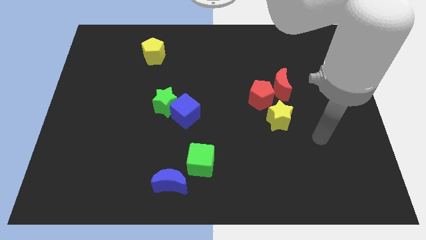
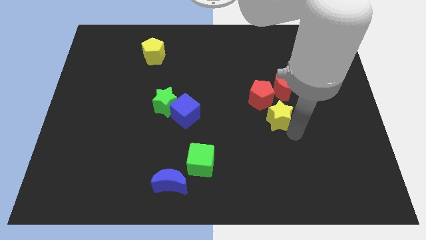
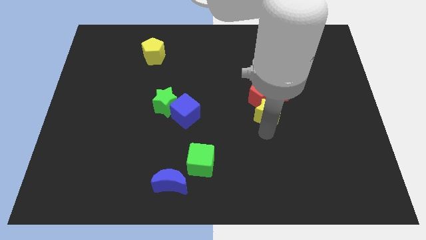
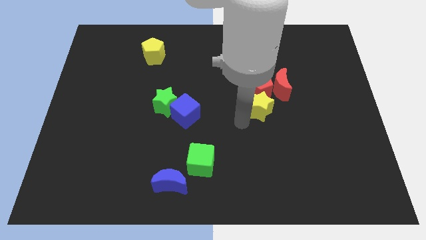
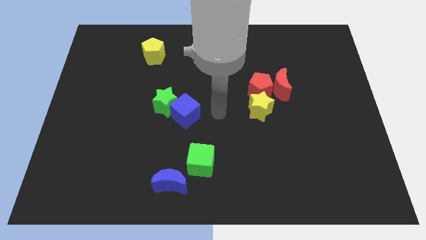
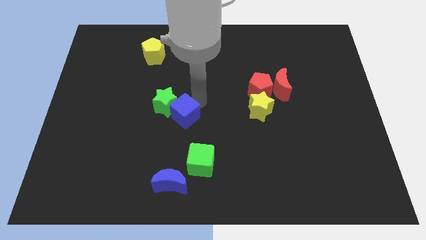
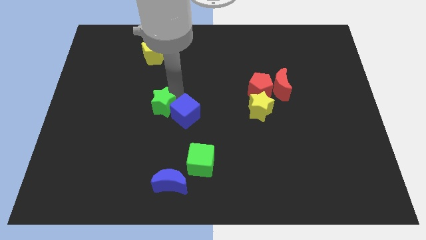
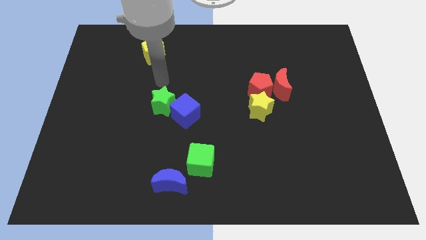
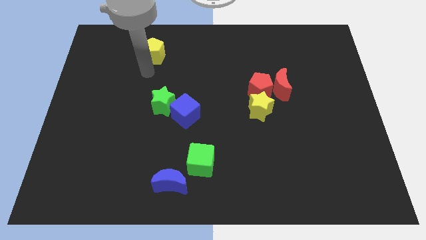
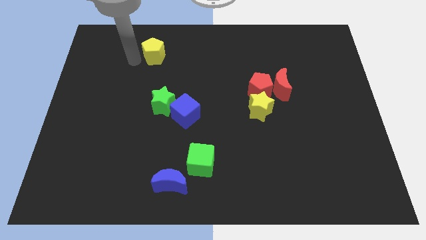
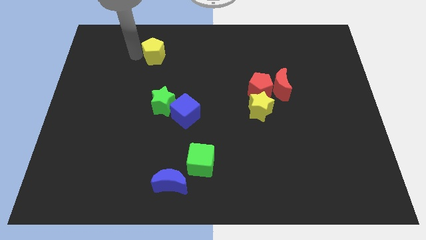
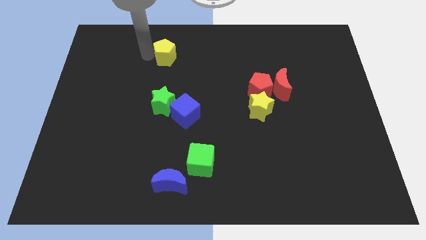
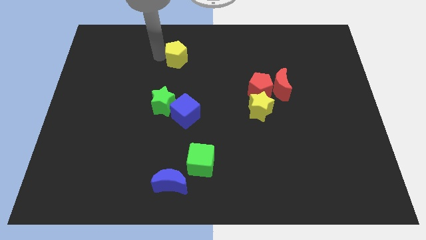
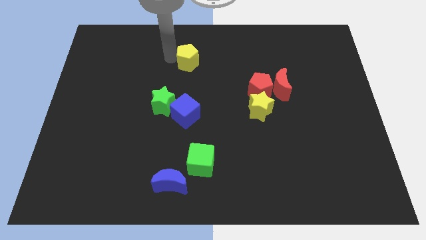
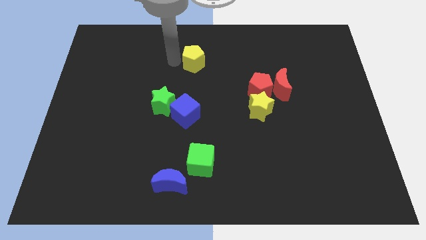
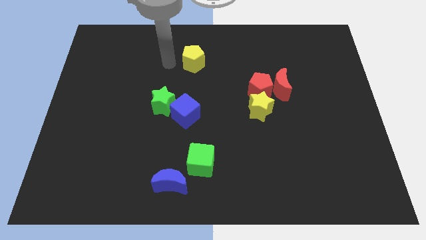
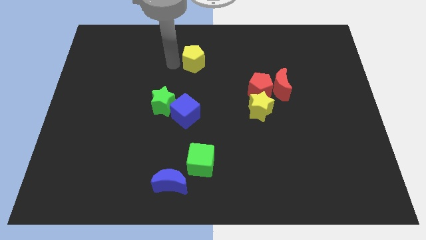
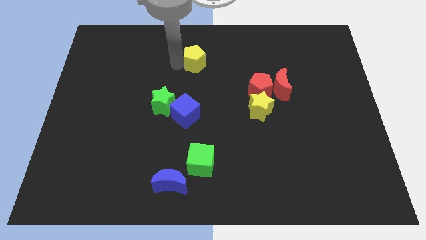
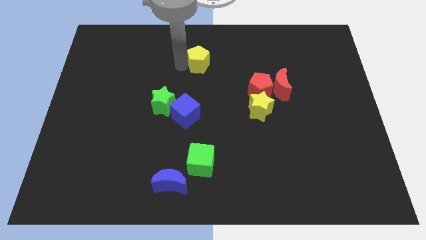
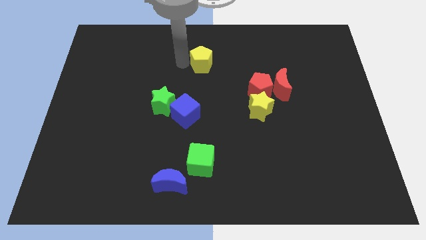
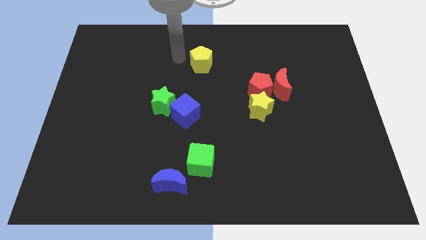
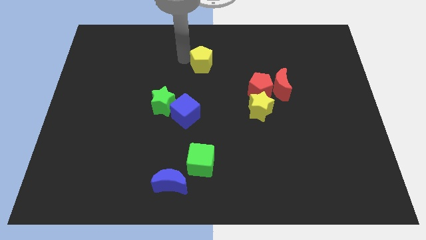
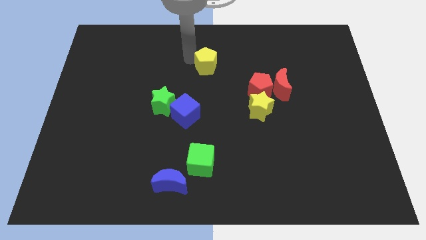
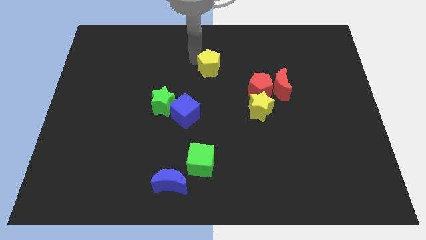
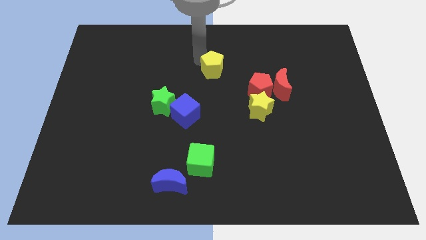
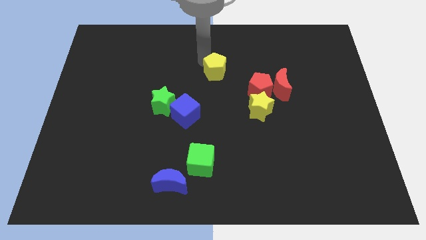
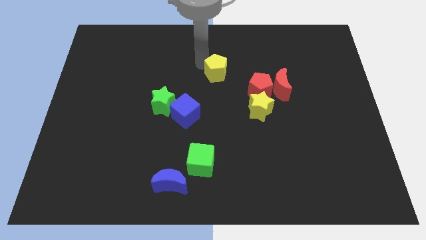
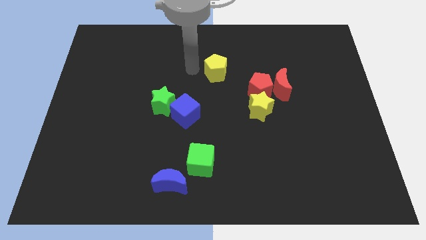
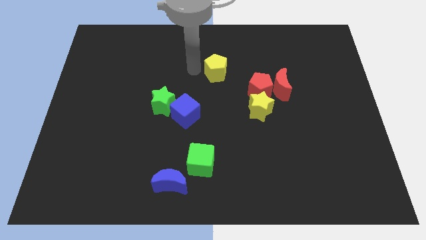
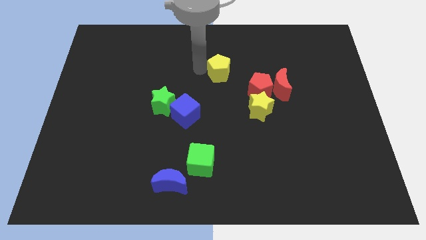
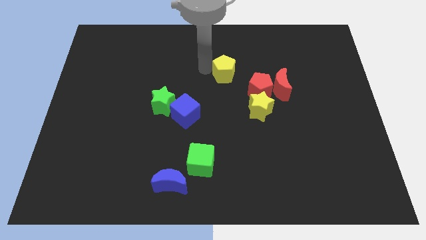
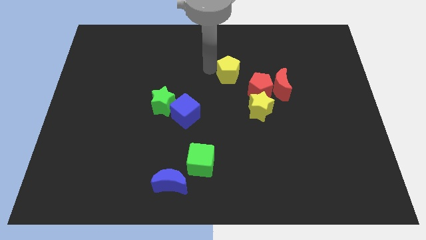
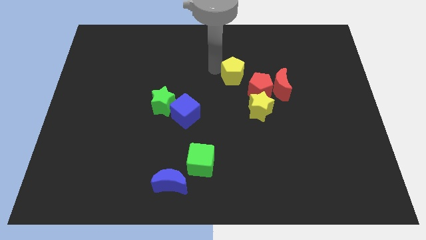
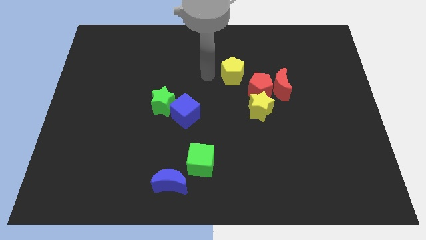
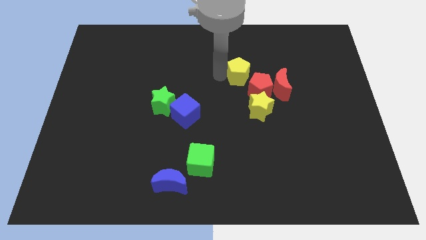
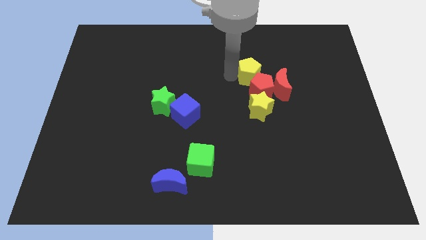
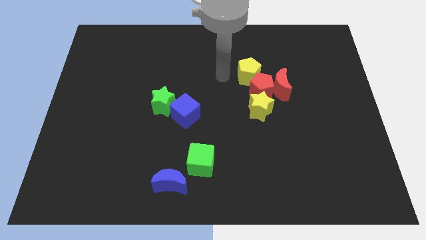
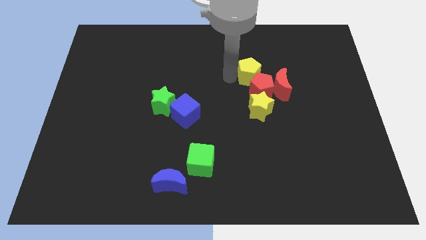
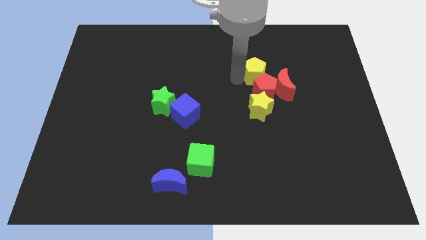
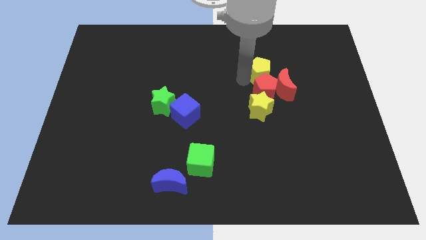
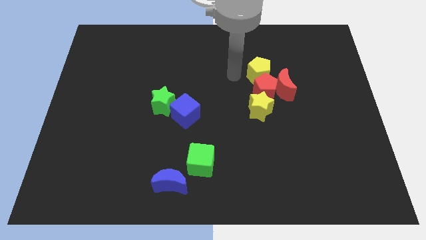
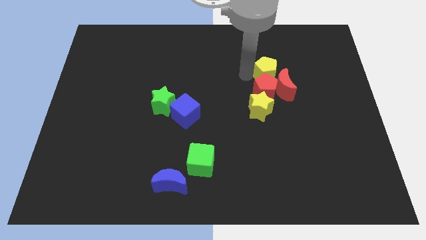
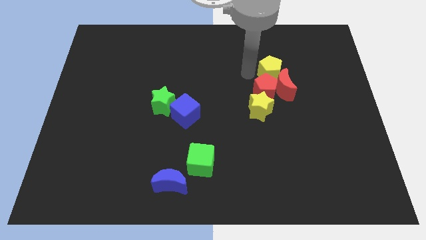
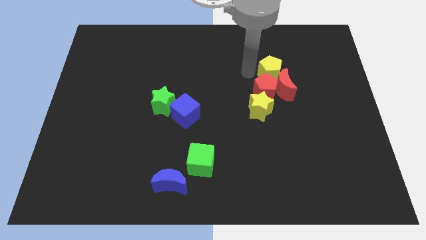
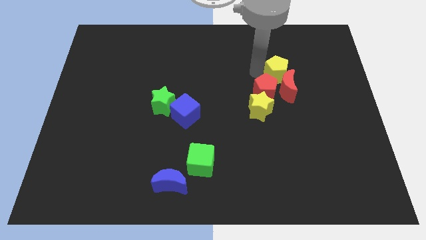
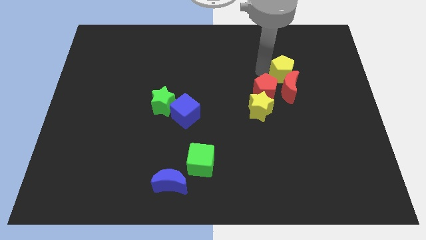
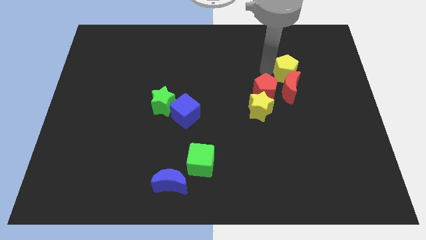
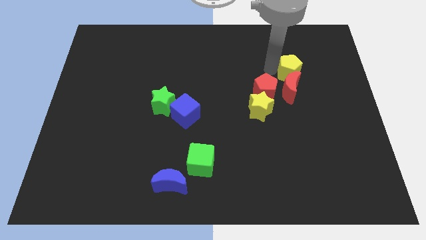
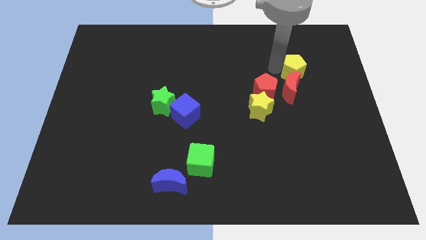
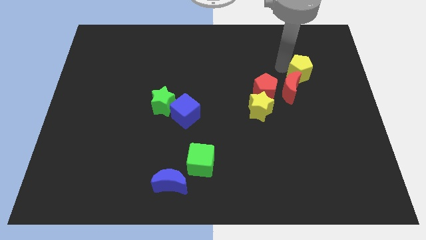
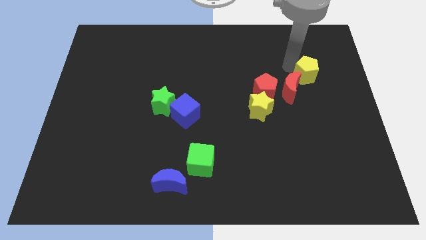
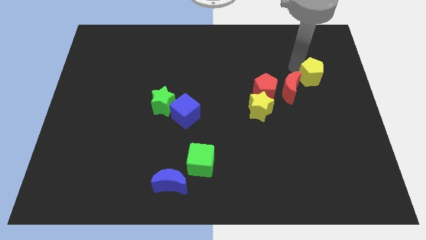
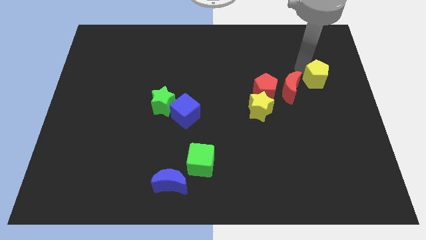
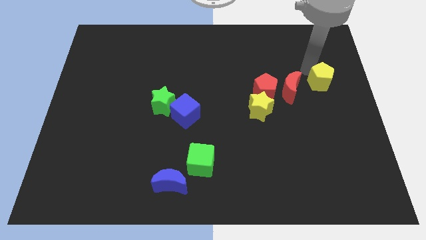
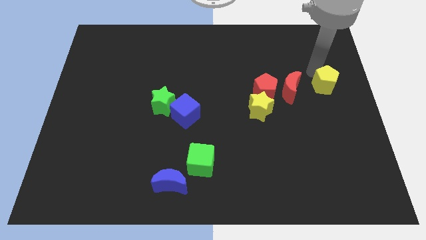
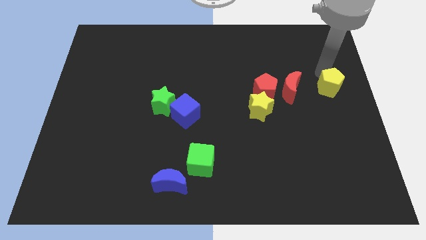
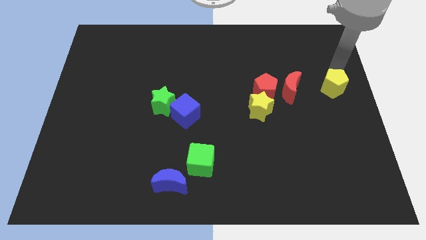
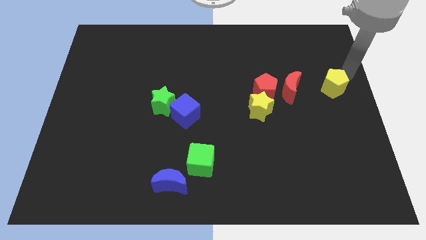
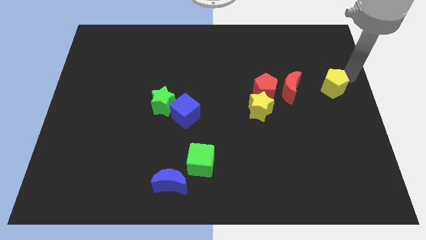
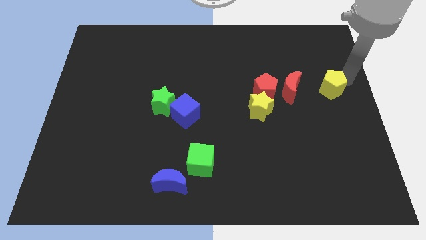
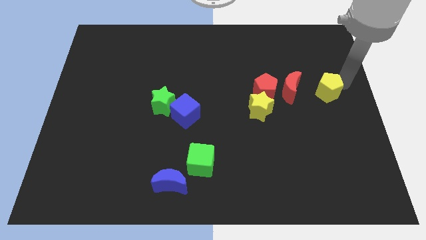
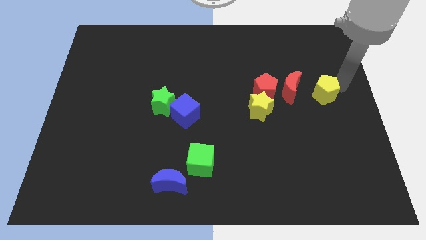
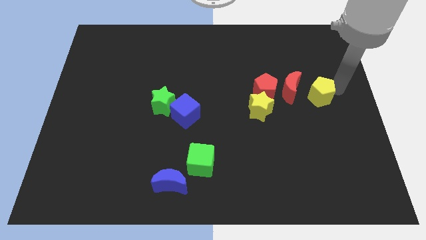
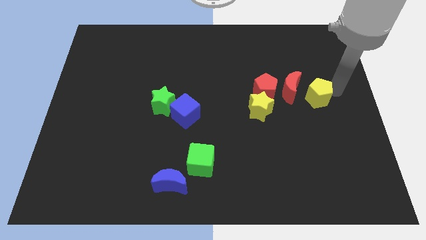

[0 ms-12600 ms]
put the yellow pentagon just right of the yellow star
